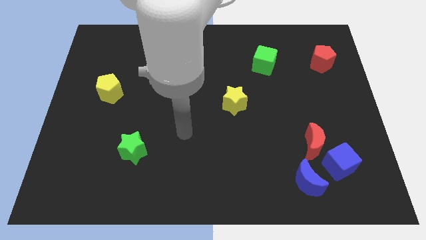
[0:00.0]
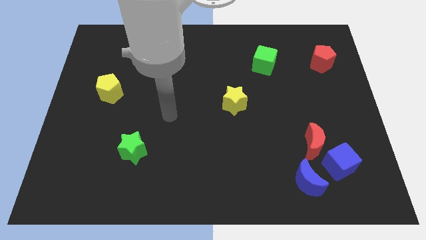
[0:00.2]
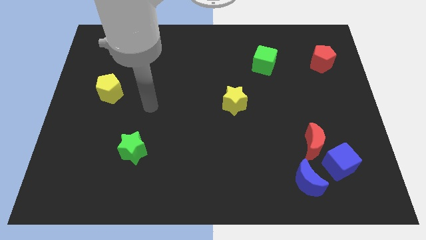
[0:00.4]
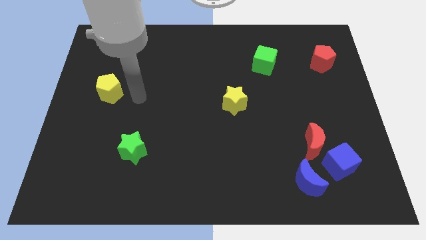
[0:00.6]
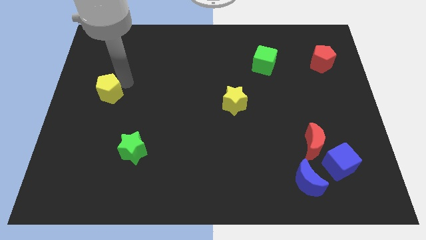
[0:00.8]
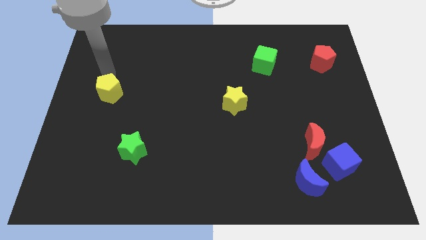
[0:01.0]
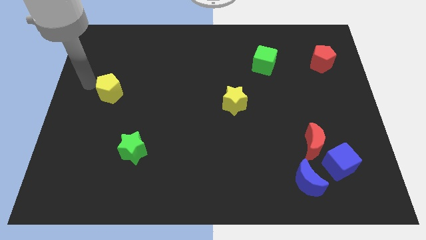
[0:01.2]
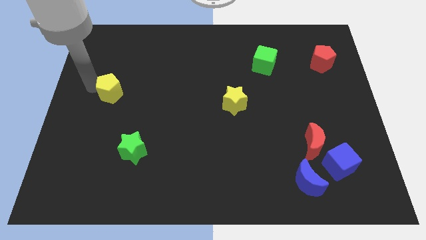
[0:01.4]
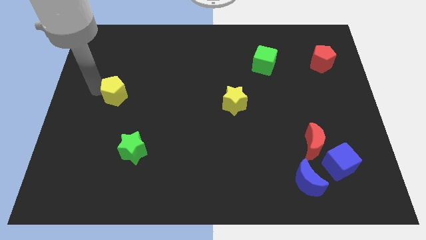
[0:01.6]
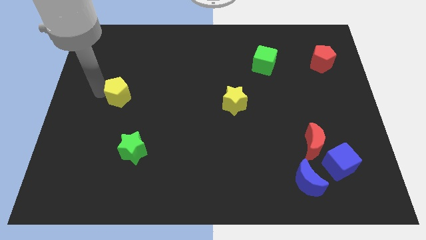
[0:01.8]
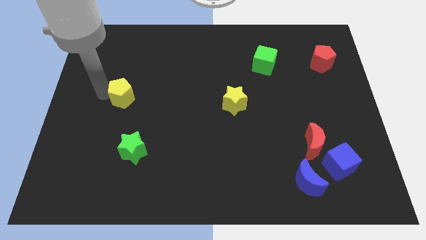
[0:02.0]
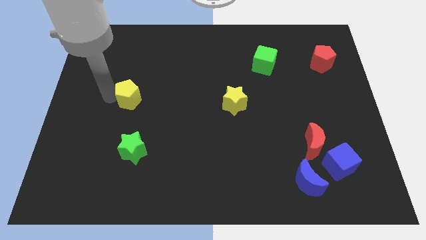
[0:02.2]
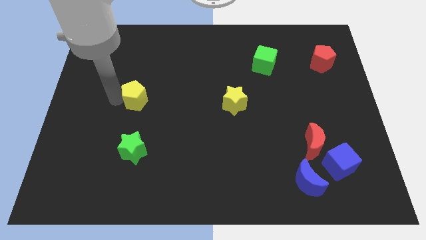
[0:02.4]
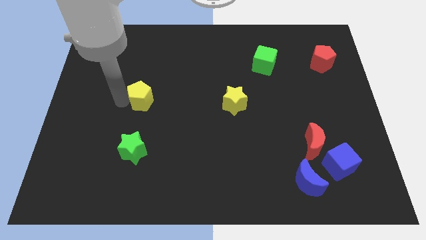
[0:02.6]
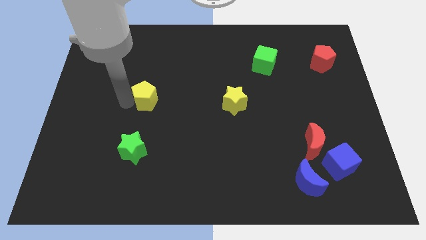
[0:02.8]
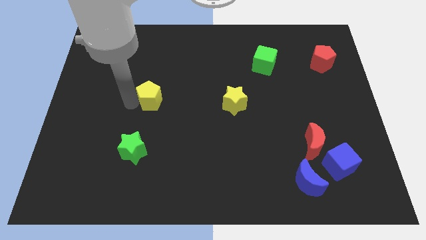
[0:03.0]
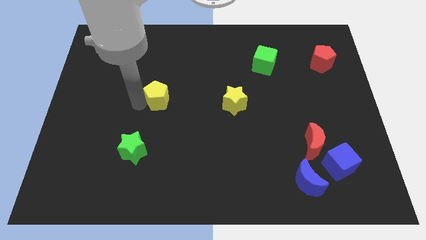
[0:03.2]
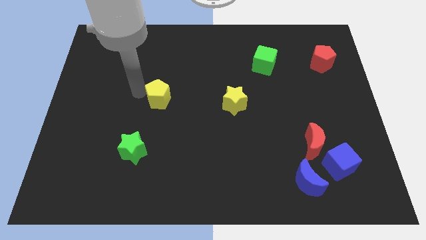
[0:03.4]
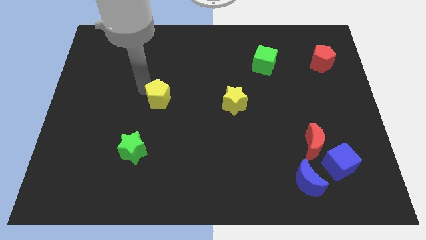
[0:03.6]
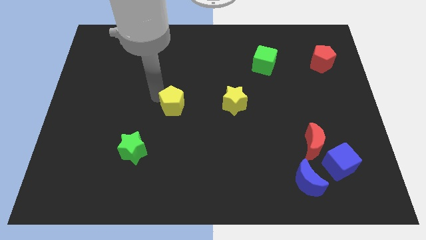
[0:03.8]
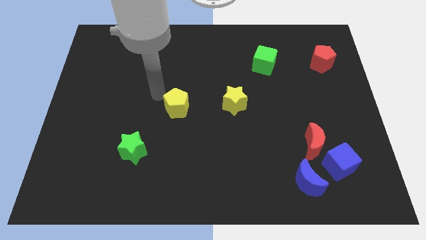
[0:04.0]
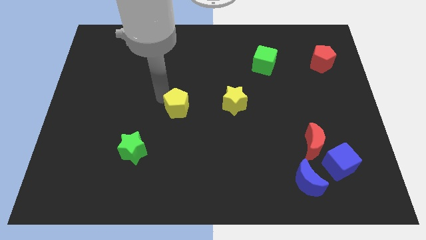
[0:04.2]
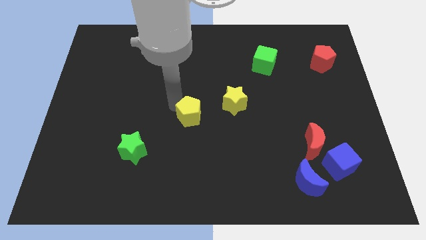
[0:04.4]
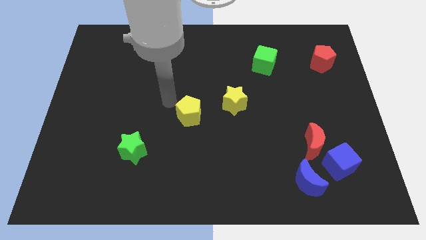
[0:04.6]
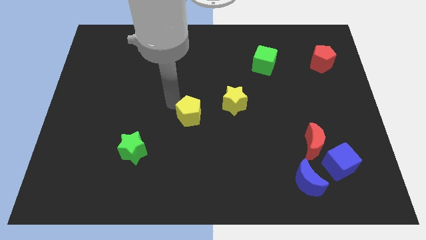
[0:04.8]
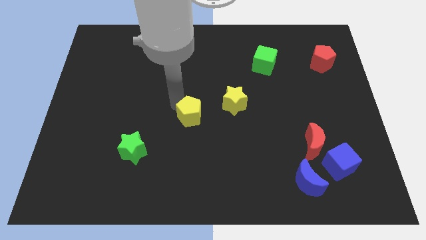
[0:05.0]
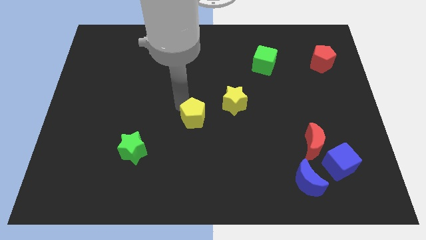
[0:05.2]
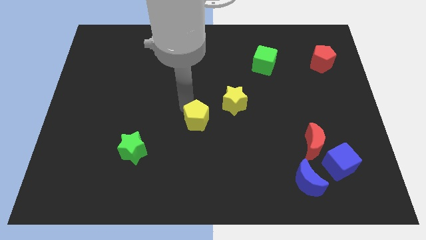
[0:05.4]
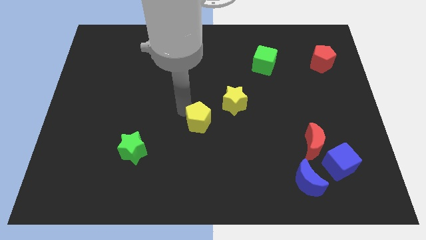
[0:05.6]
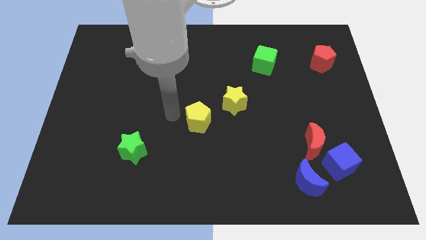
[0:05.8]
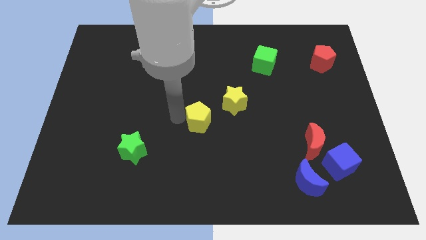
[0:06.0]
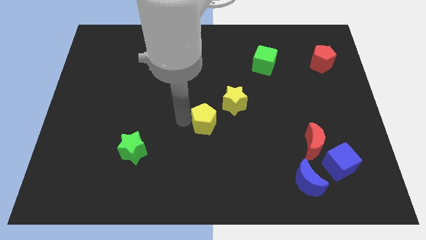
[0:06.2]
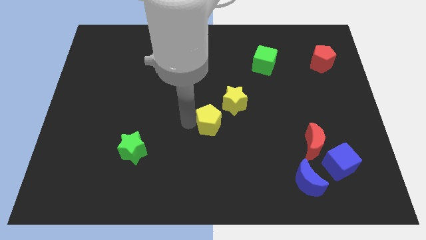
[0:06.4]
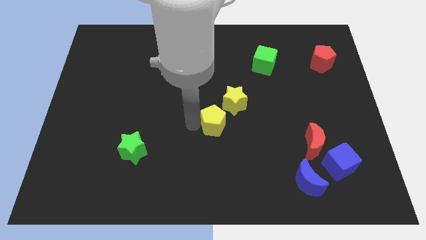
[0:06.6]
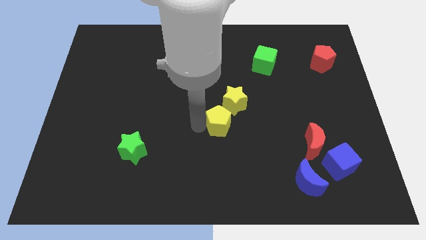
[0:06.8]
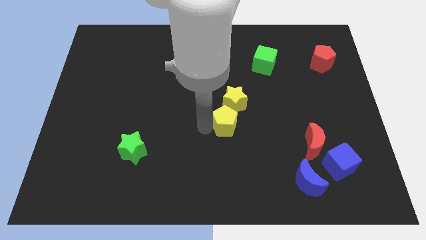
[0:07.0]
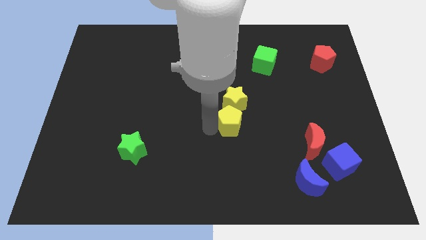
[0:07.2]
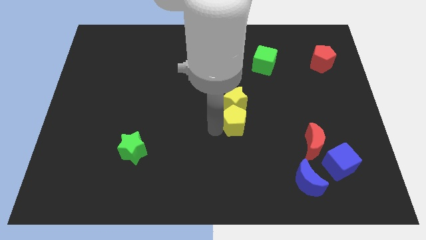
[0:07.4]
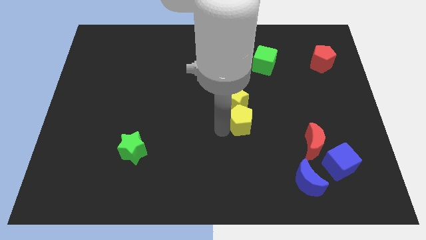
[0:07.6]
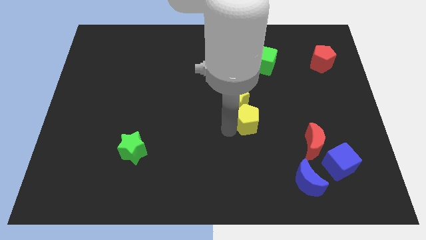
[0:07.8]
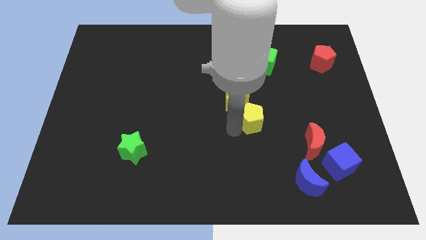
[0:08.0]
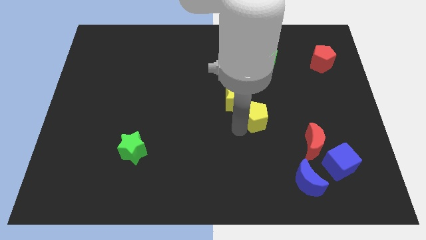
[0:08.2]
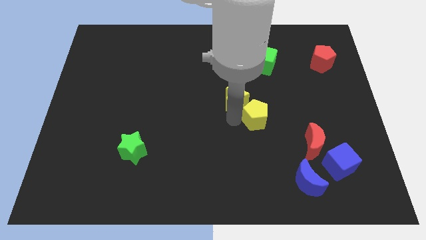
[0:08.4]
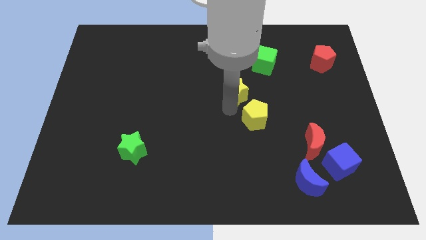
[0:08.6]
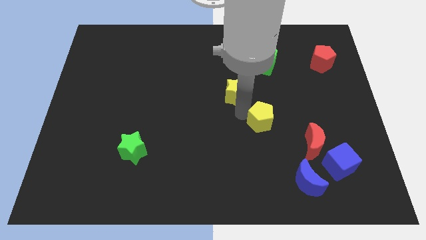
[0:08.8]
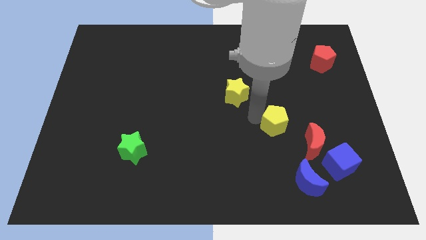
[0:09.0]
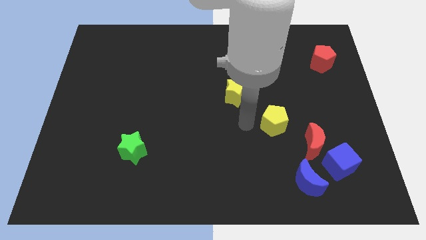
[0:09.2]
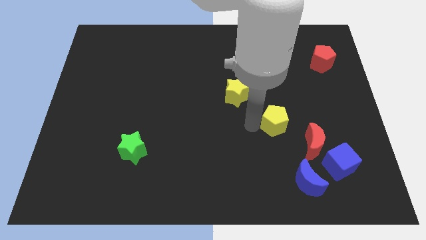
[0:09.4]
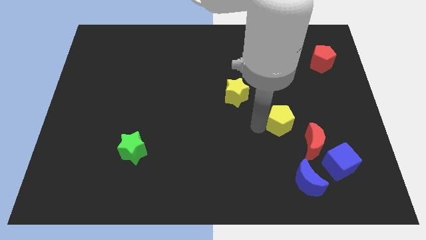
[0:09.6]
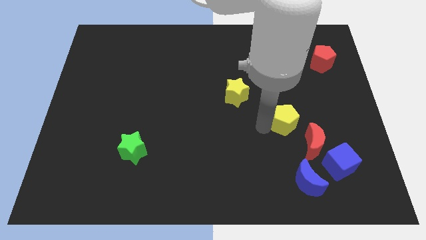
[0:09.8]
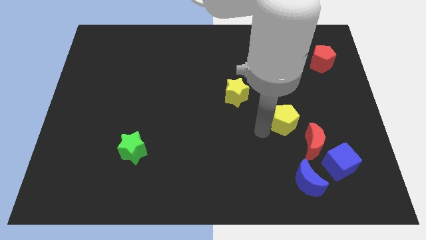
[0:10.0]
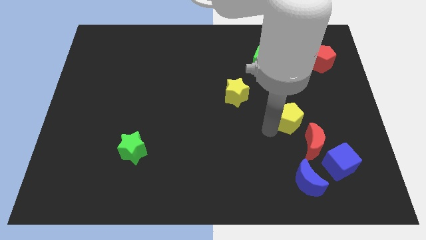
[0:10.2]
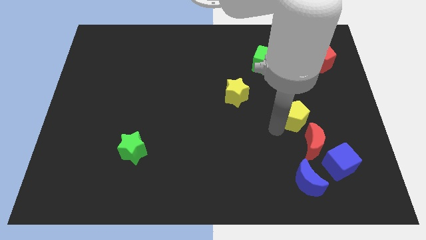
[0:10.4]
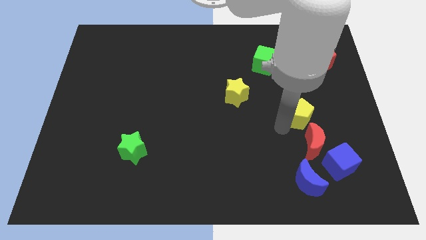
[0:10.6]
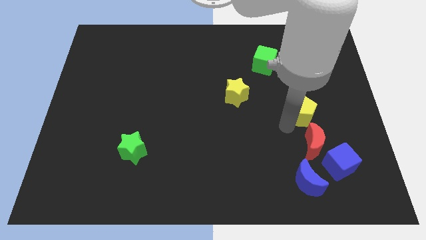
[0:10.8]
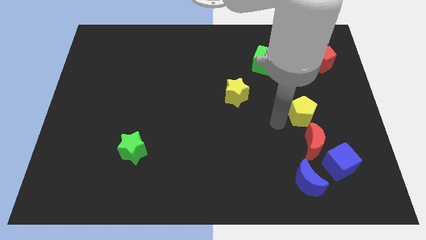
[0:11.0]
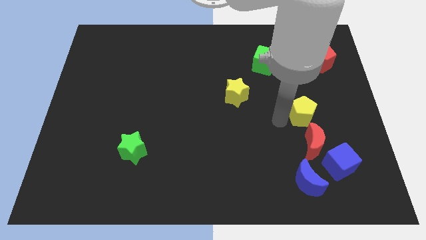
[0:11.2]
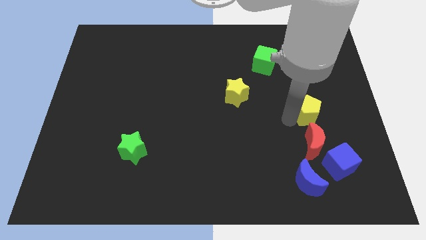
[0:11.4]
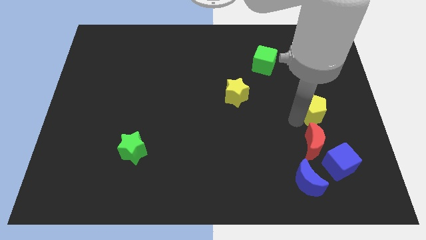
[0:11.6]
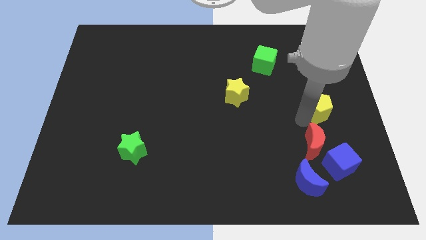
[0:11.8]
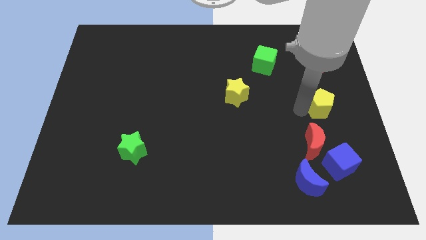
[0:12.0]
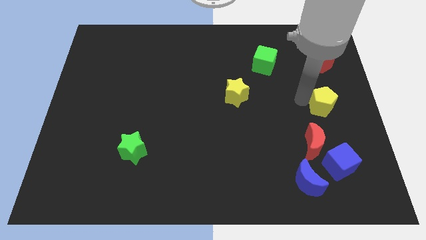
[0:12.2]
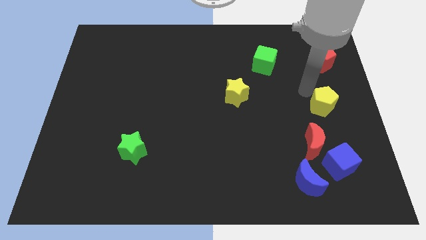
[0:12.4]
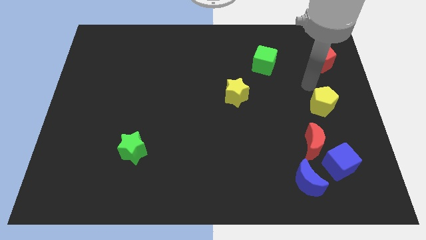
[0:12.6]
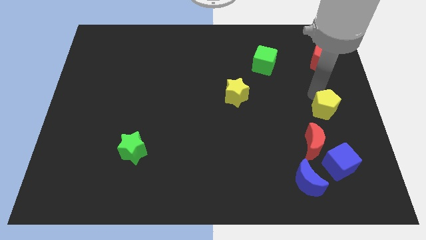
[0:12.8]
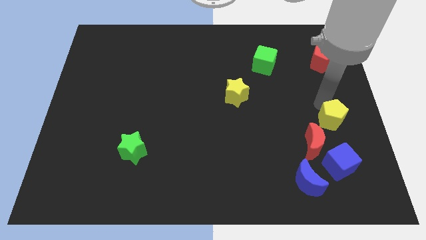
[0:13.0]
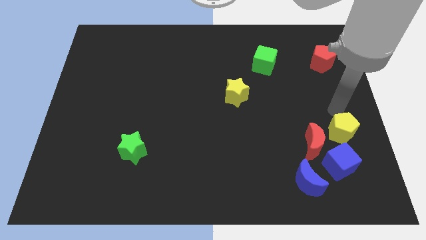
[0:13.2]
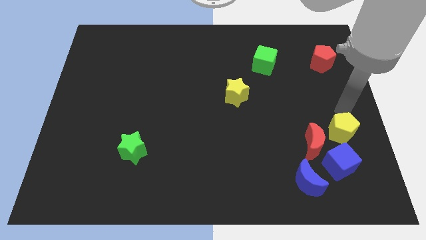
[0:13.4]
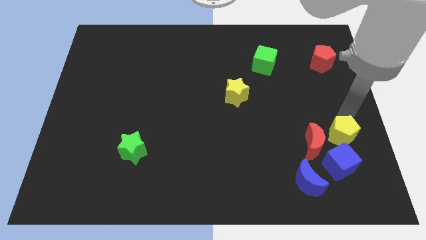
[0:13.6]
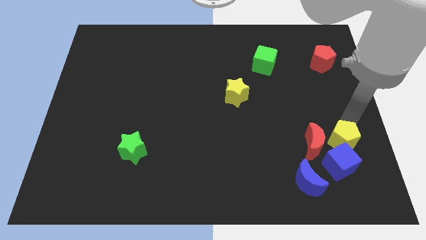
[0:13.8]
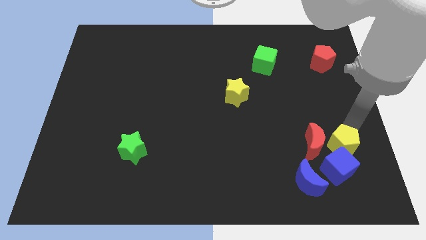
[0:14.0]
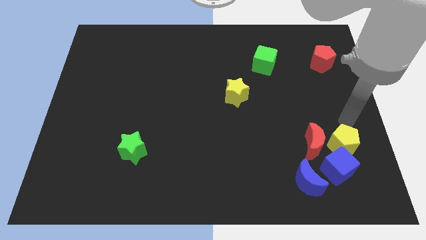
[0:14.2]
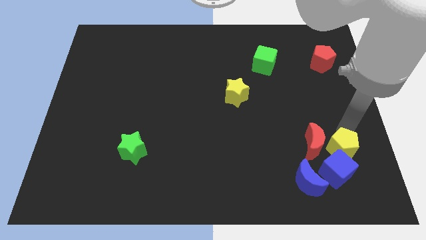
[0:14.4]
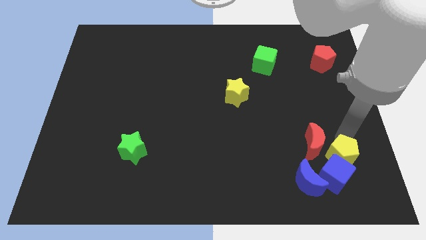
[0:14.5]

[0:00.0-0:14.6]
put the yellow pentagon next to the blue cube
